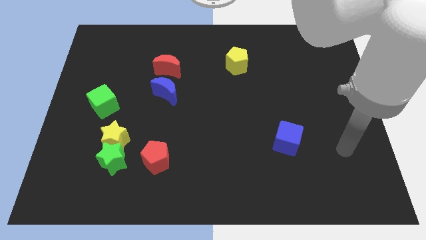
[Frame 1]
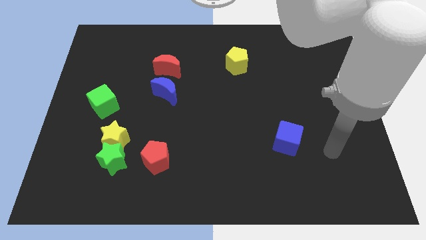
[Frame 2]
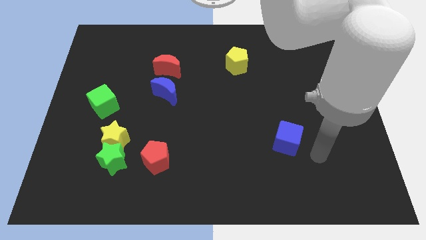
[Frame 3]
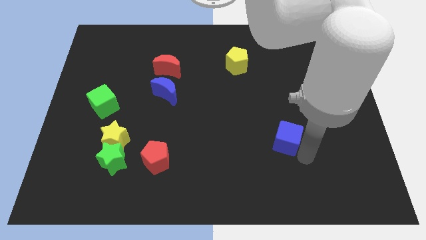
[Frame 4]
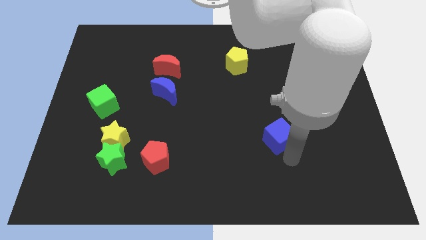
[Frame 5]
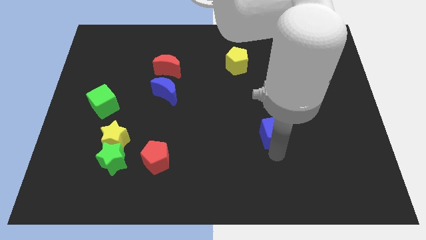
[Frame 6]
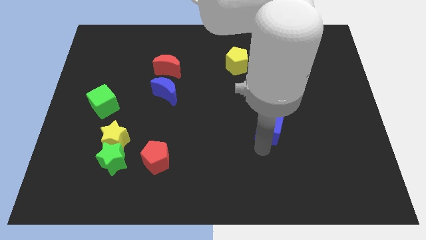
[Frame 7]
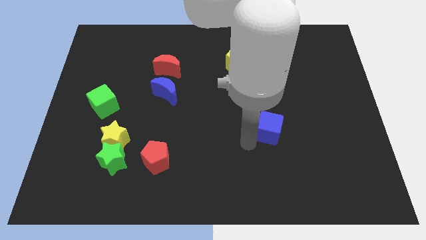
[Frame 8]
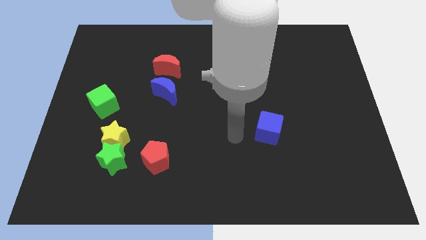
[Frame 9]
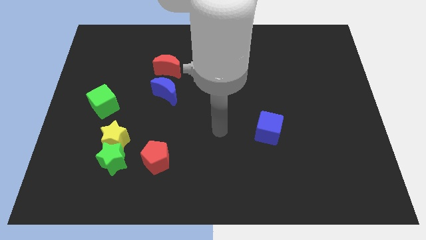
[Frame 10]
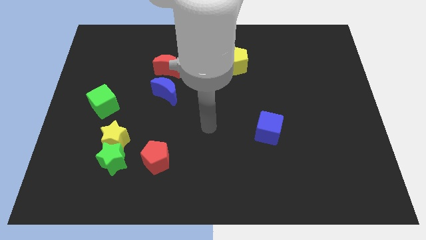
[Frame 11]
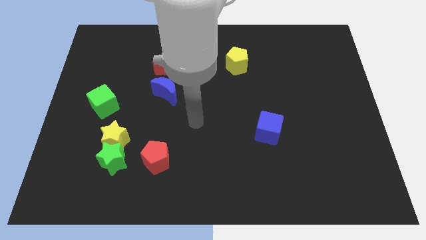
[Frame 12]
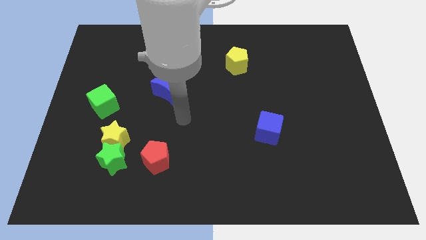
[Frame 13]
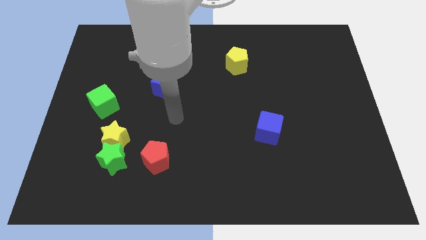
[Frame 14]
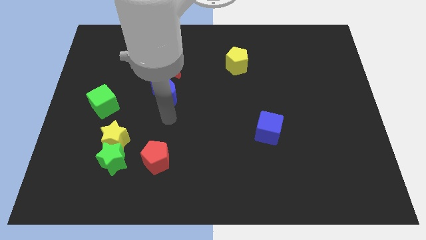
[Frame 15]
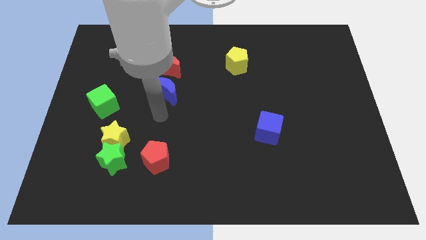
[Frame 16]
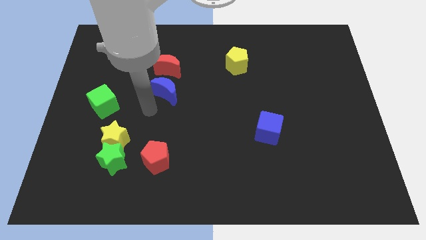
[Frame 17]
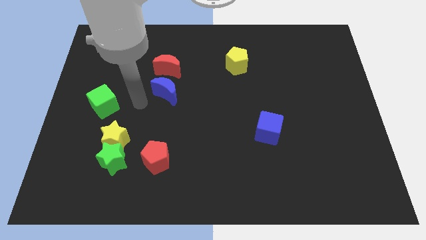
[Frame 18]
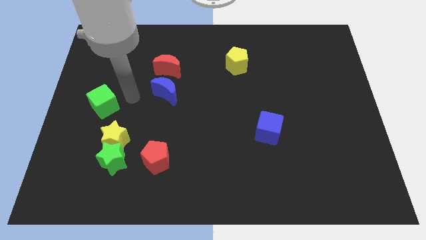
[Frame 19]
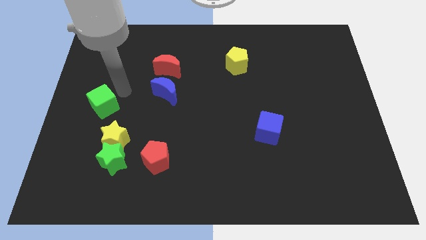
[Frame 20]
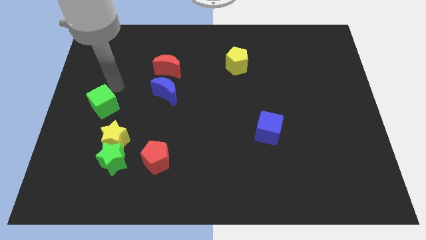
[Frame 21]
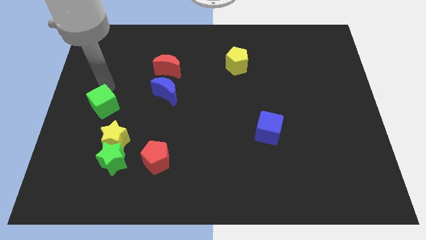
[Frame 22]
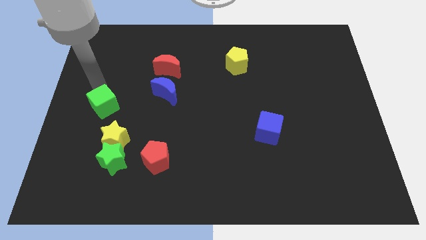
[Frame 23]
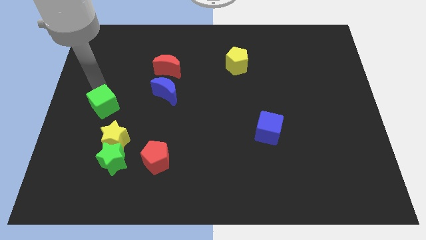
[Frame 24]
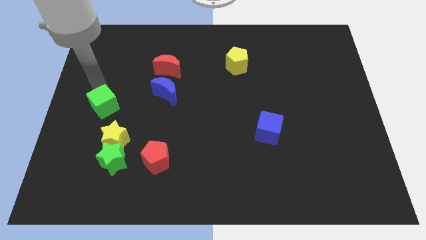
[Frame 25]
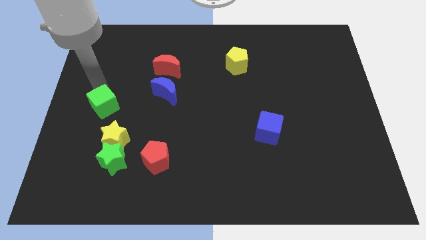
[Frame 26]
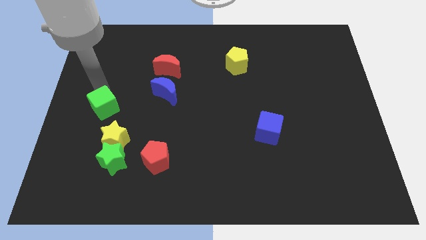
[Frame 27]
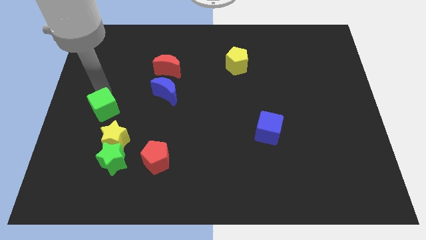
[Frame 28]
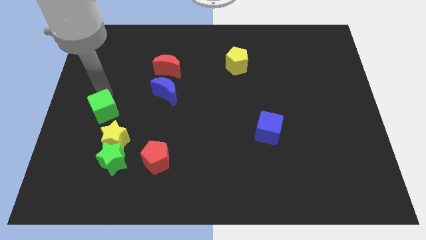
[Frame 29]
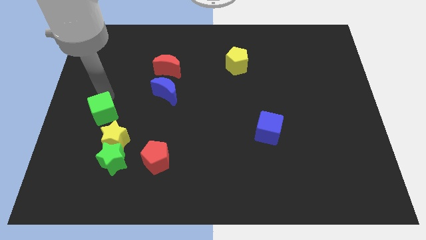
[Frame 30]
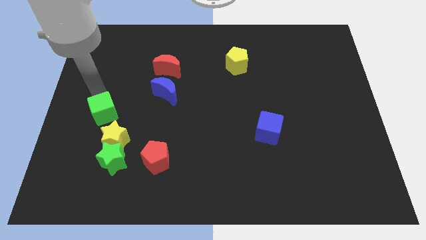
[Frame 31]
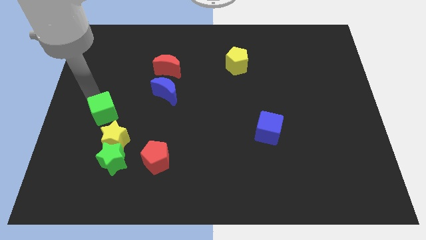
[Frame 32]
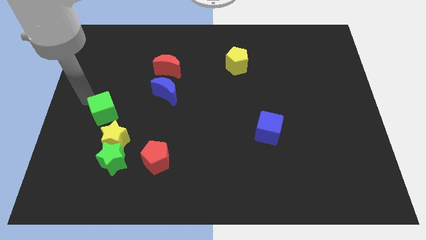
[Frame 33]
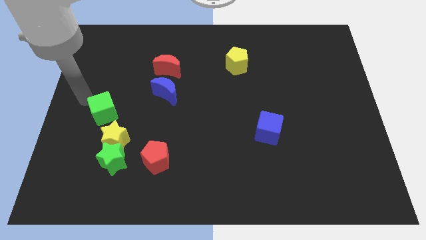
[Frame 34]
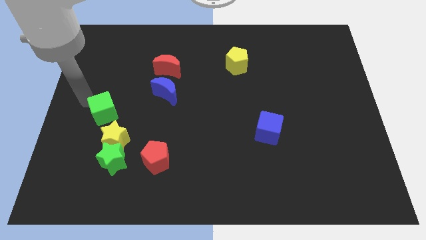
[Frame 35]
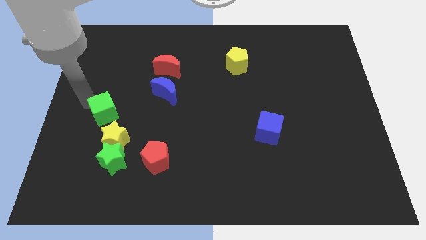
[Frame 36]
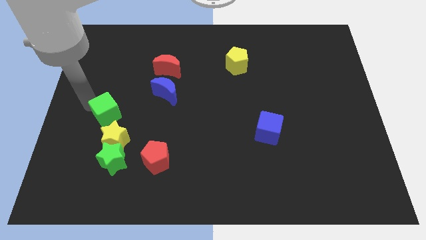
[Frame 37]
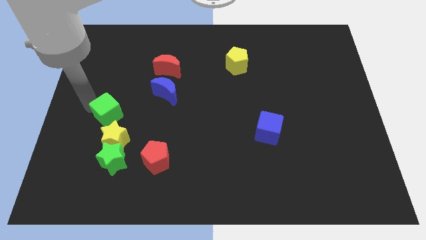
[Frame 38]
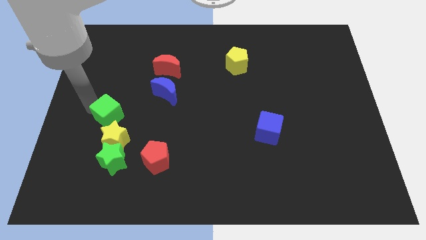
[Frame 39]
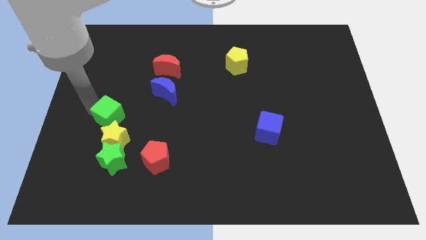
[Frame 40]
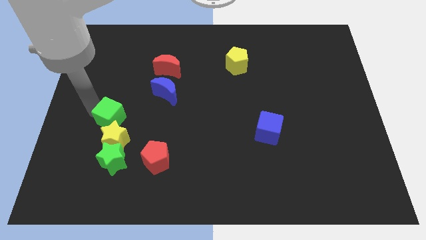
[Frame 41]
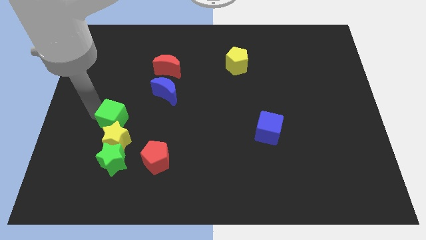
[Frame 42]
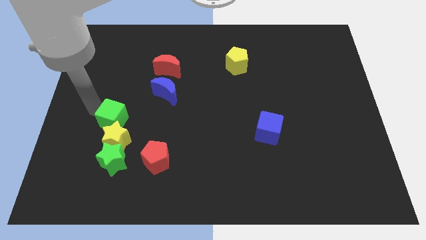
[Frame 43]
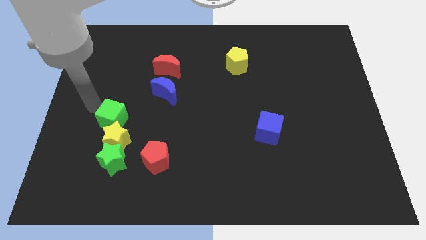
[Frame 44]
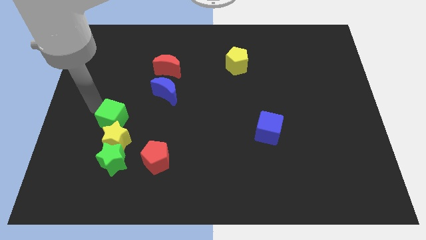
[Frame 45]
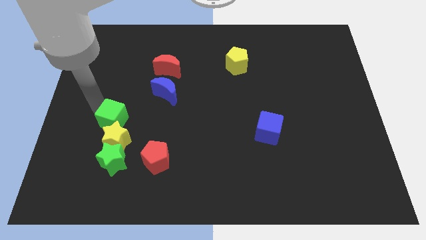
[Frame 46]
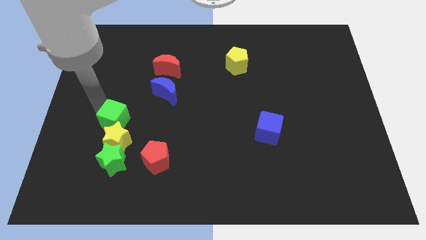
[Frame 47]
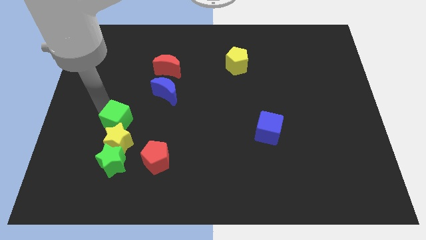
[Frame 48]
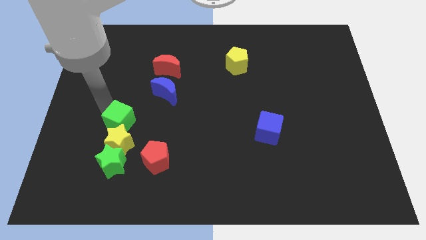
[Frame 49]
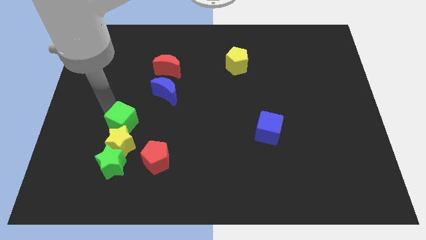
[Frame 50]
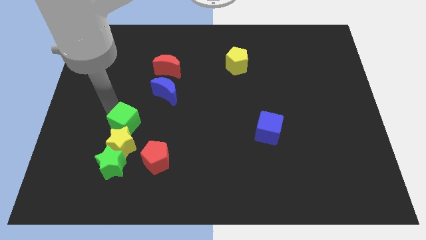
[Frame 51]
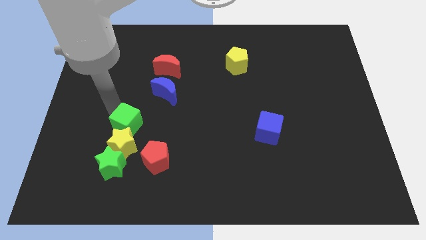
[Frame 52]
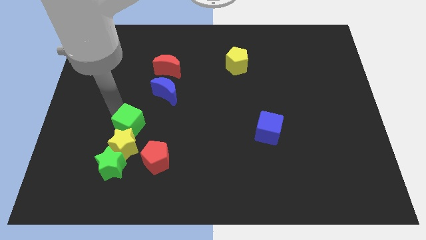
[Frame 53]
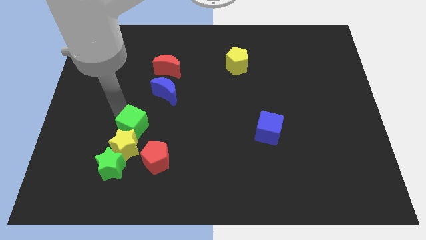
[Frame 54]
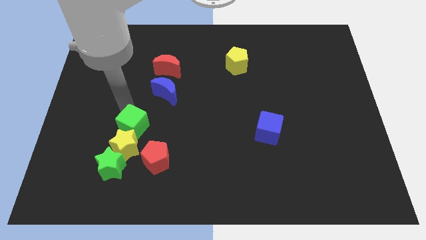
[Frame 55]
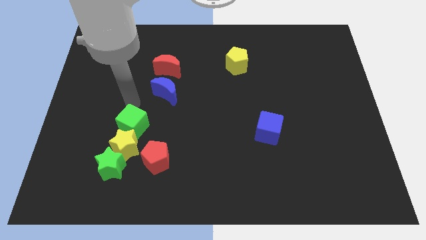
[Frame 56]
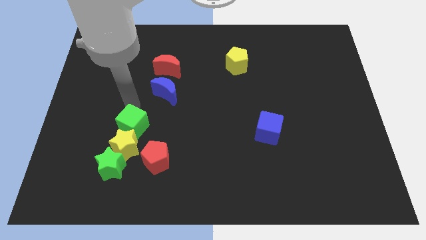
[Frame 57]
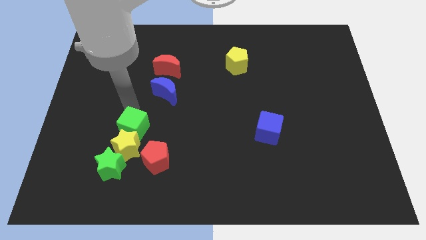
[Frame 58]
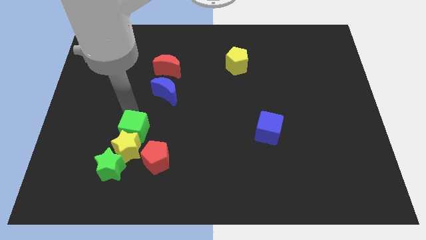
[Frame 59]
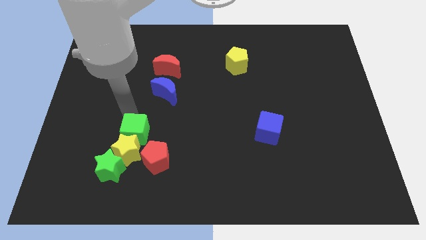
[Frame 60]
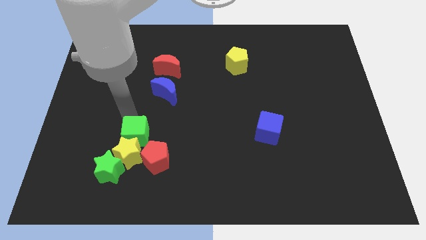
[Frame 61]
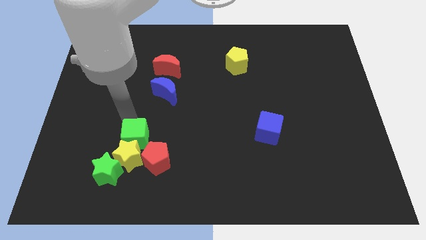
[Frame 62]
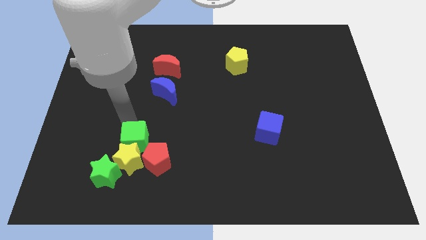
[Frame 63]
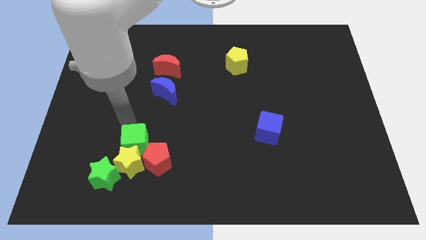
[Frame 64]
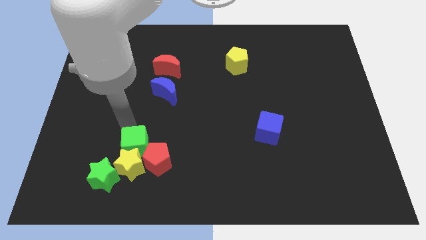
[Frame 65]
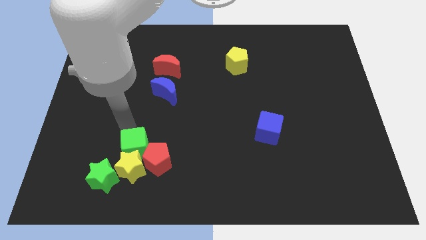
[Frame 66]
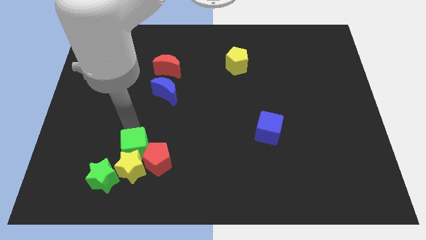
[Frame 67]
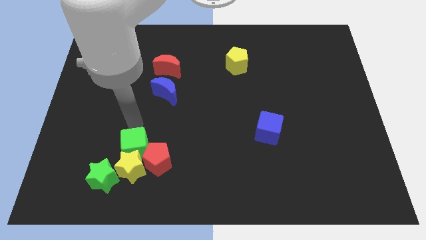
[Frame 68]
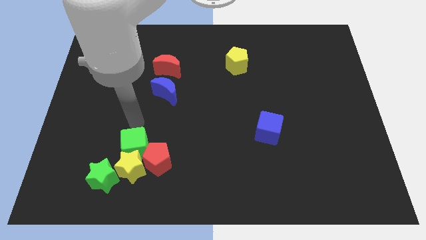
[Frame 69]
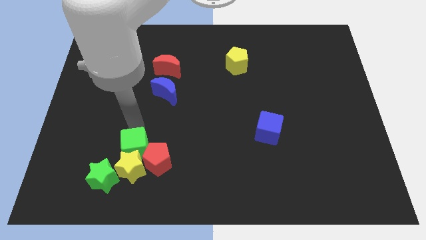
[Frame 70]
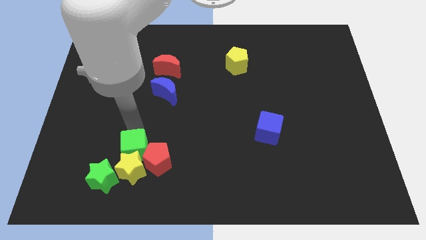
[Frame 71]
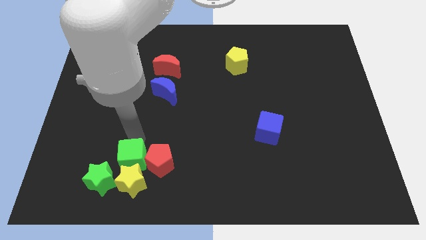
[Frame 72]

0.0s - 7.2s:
slide the green cube to the bottom left of the red pentagon
